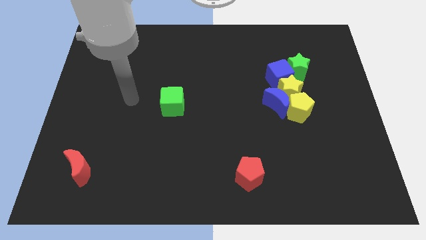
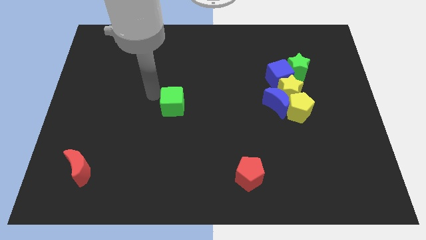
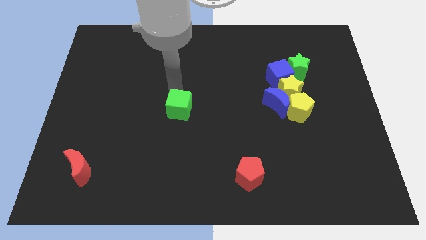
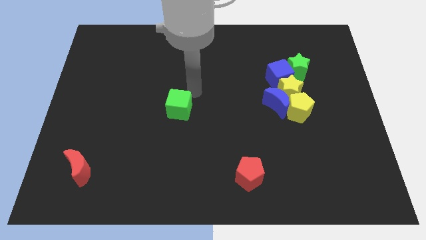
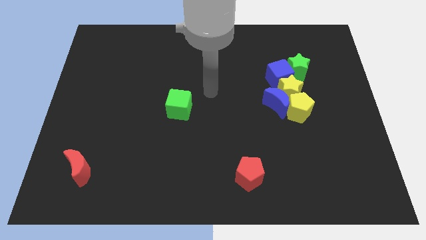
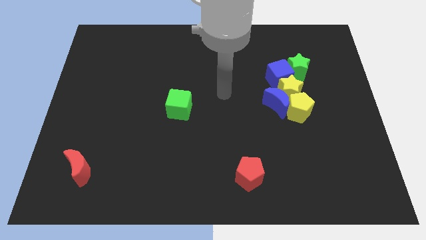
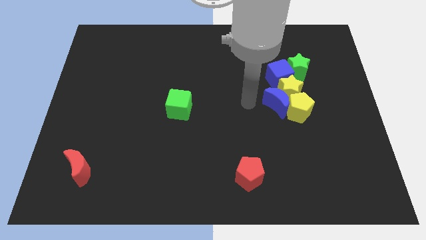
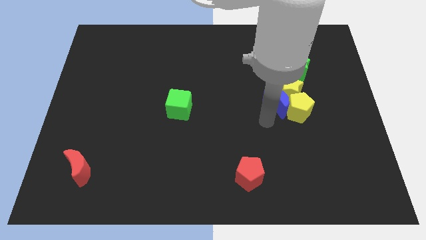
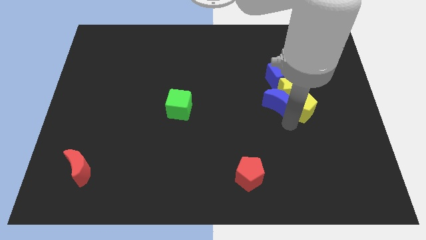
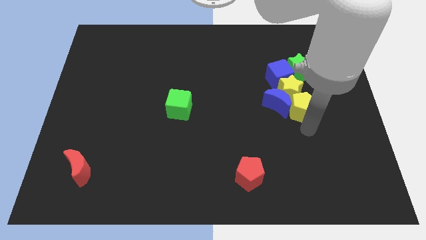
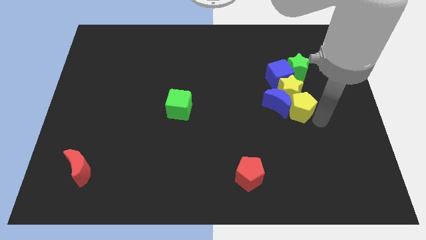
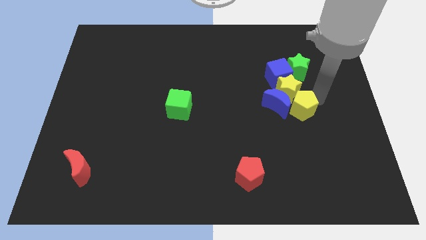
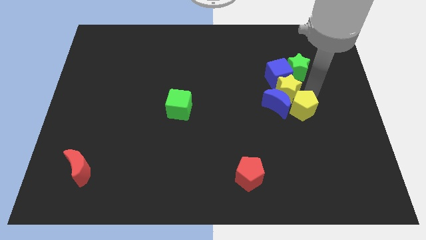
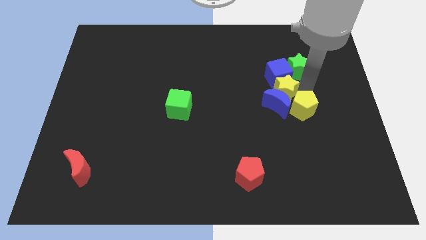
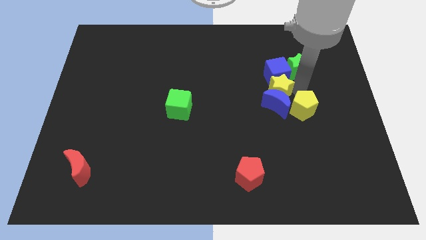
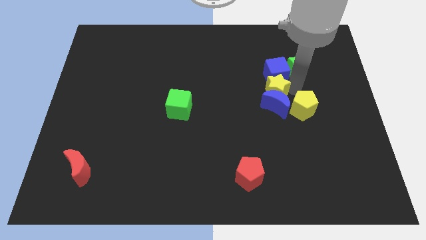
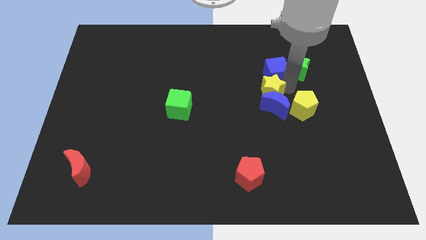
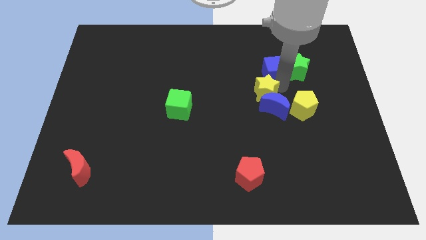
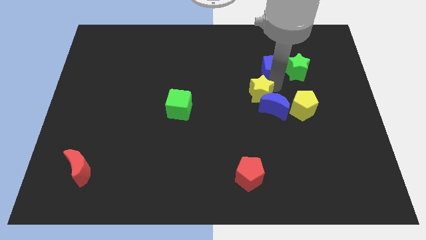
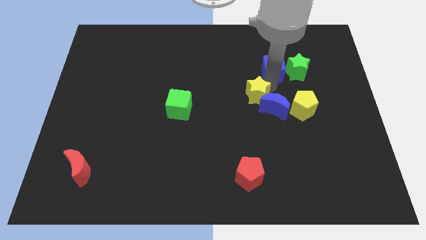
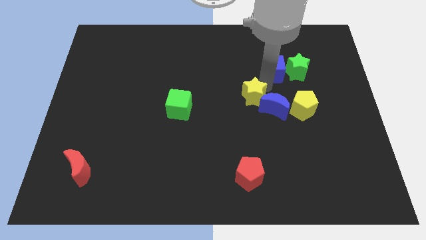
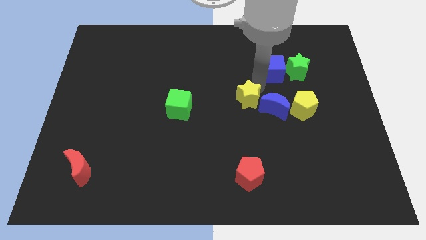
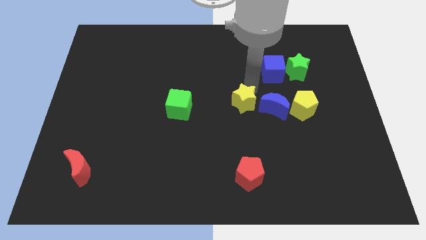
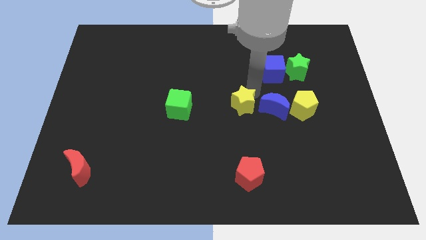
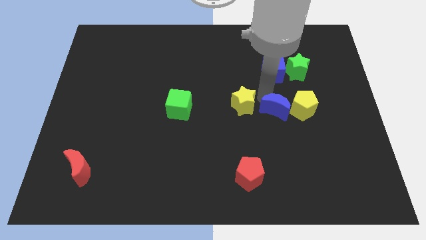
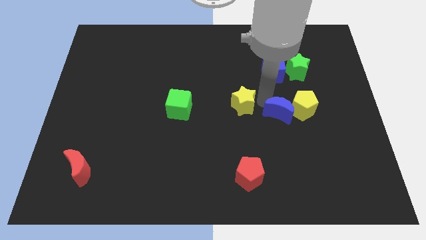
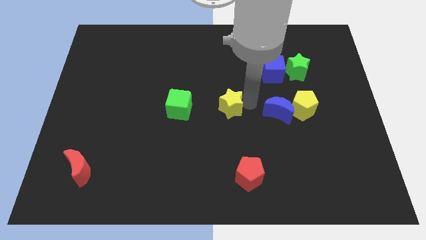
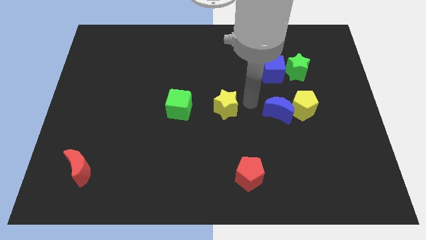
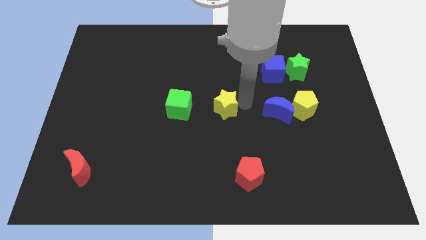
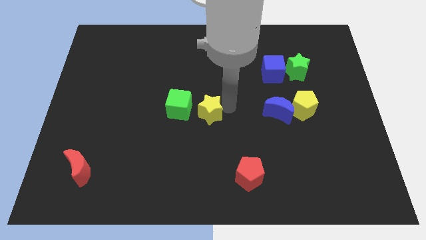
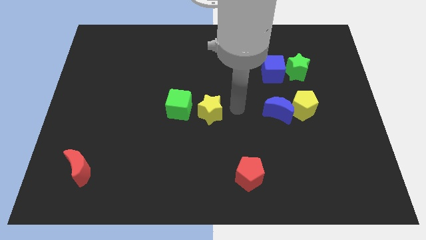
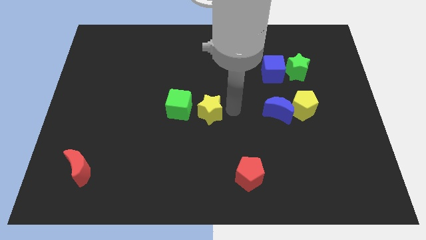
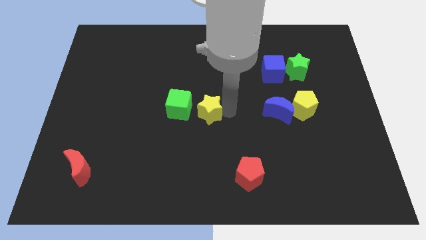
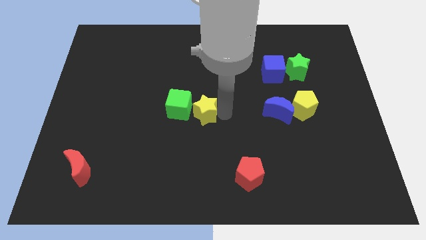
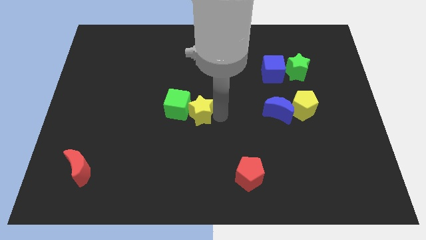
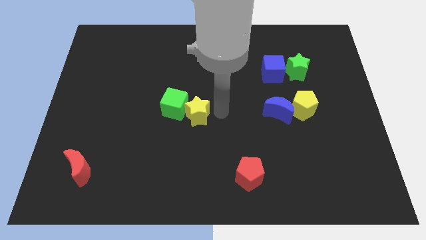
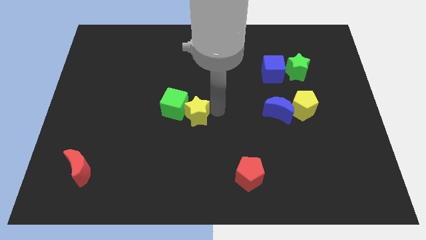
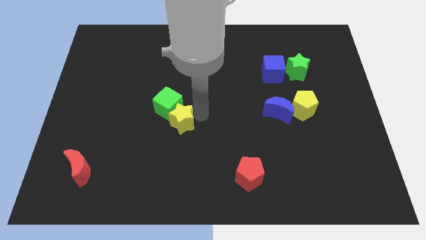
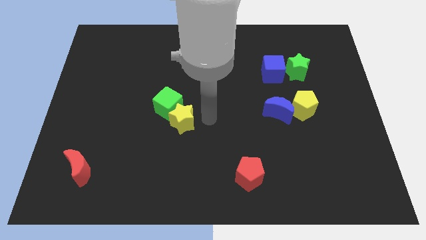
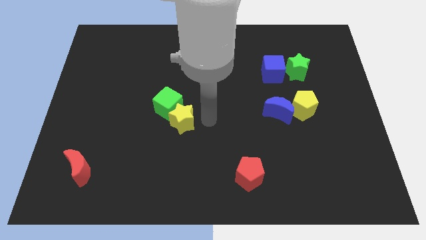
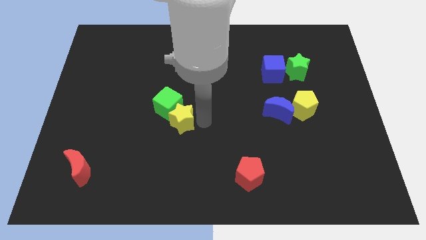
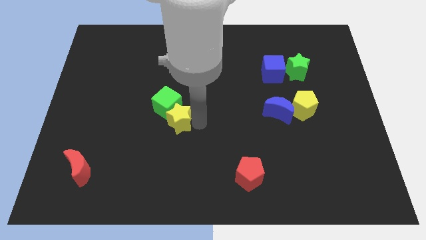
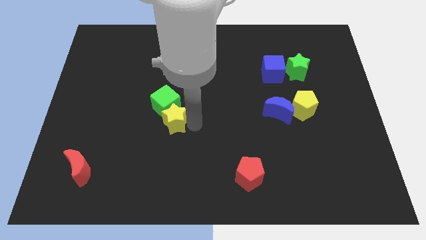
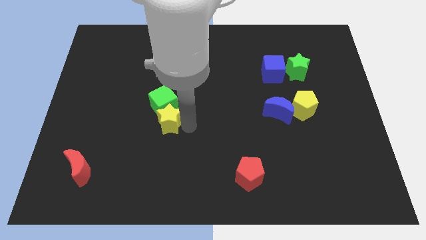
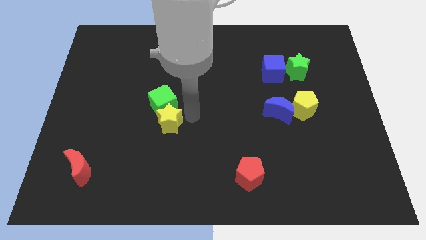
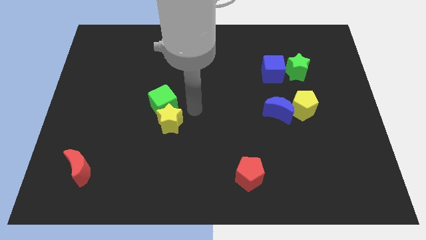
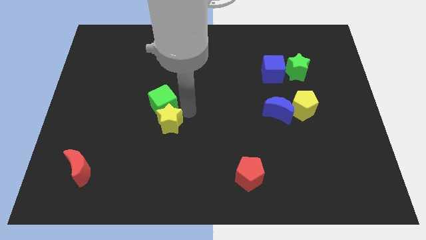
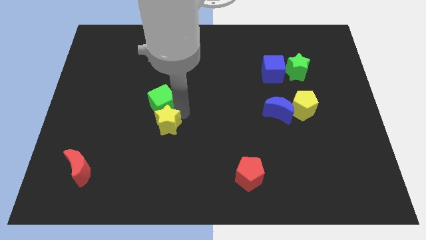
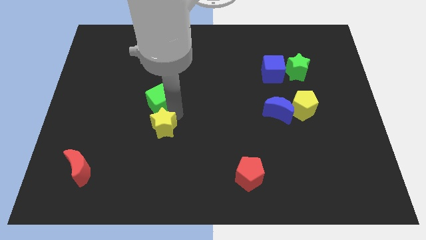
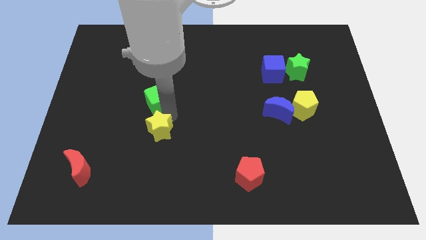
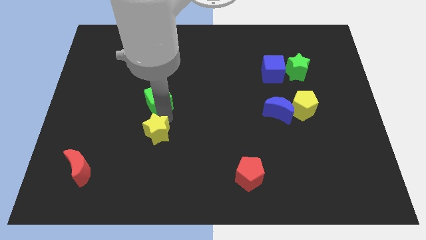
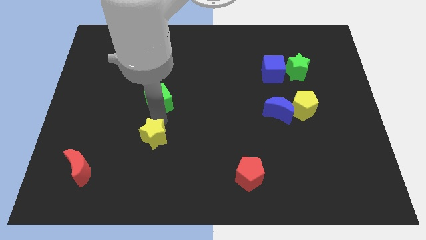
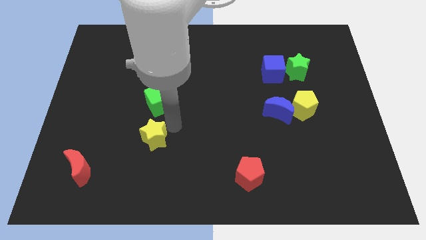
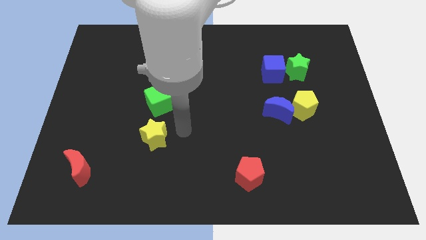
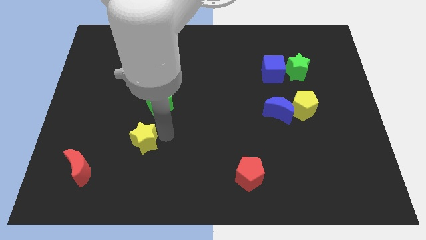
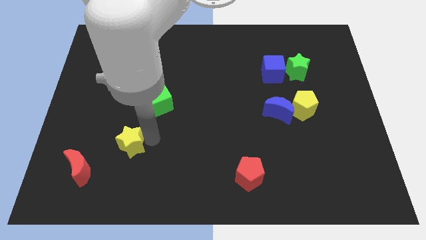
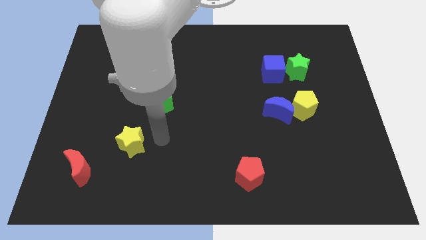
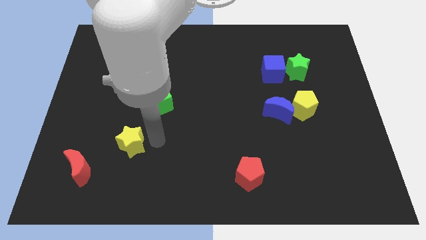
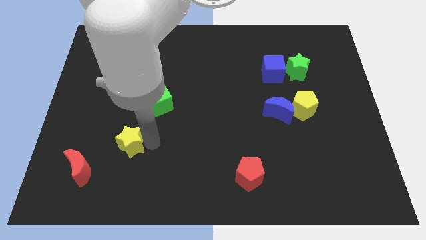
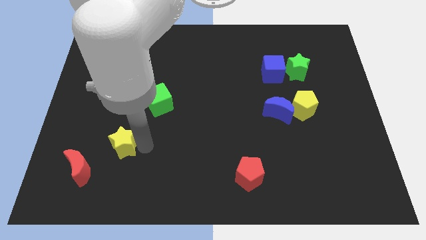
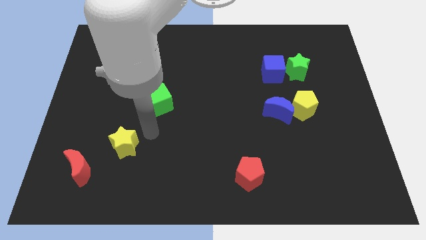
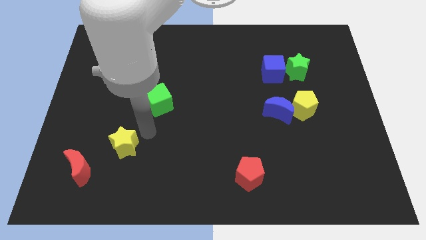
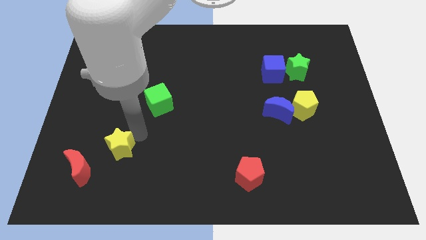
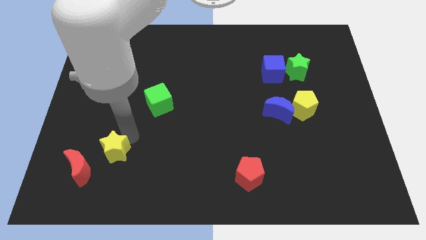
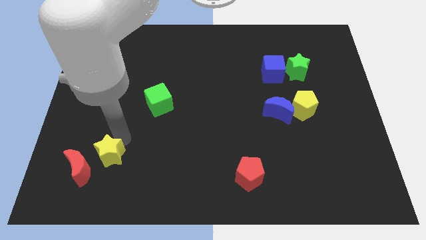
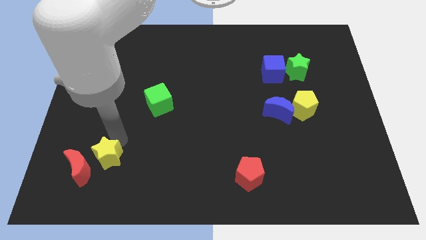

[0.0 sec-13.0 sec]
push the yellow star close to the red moon

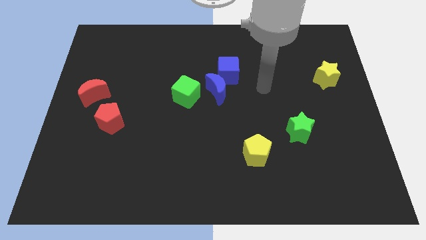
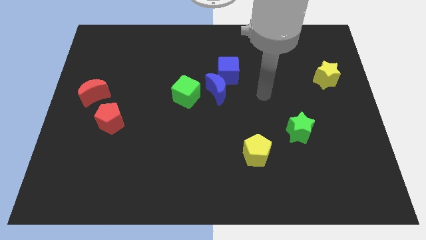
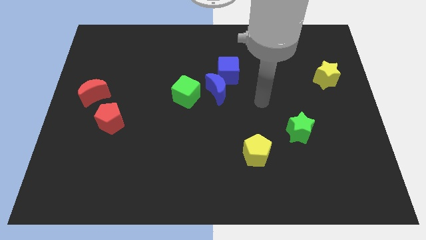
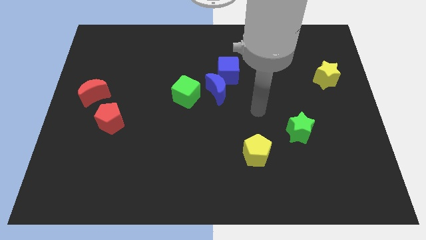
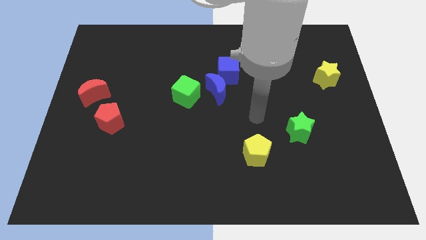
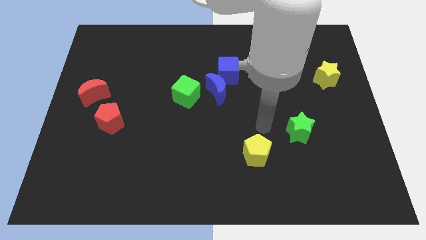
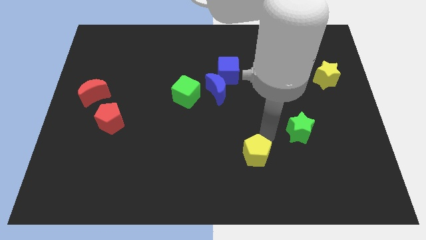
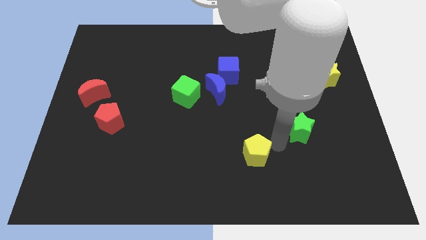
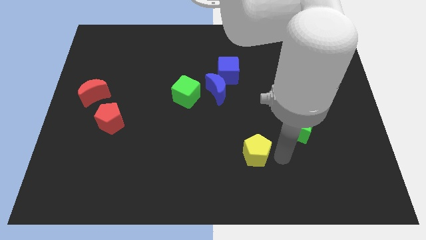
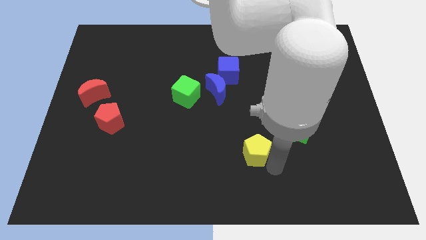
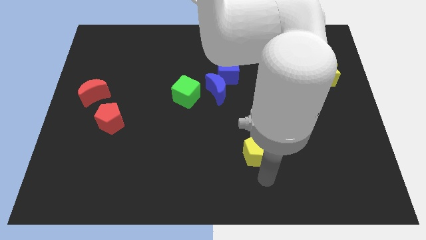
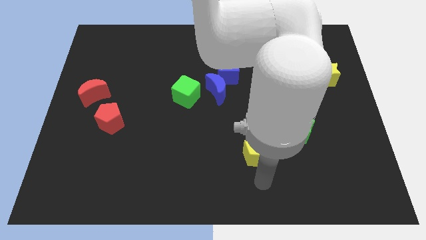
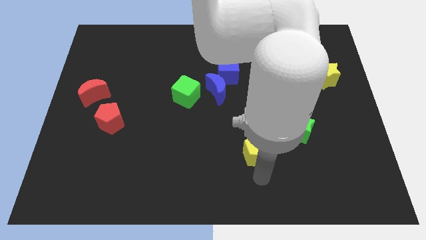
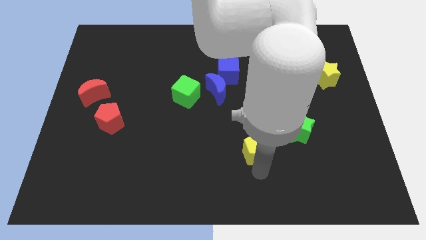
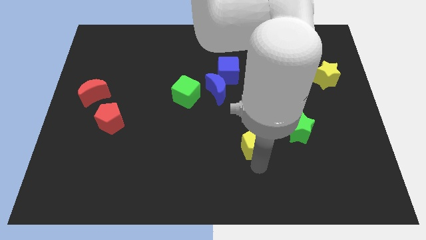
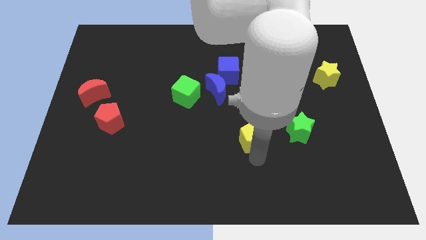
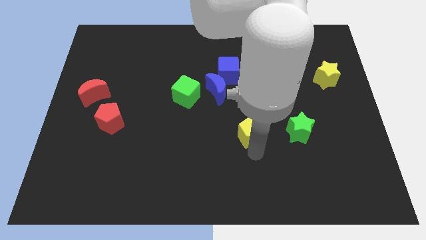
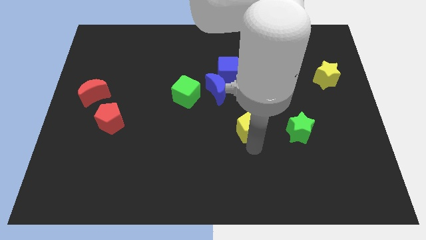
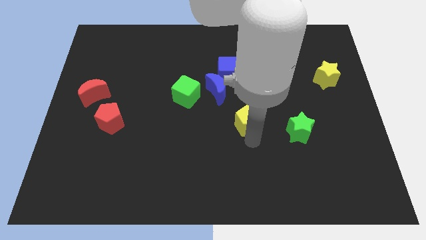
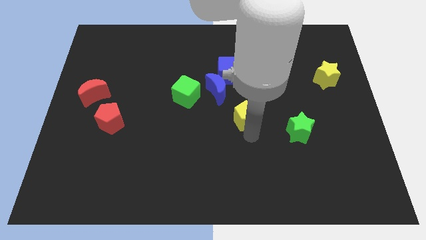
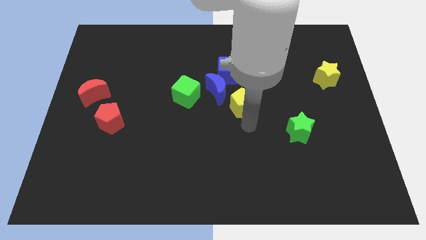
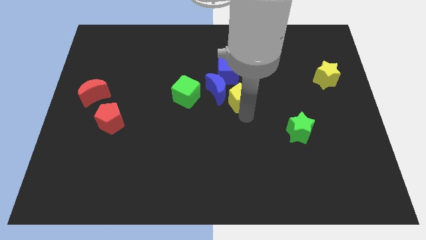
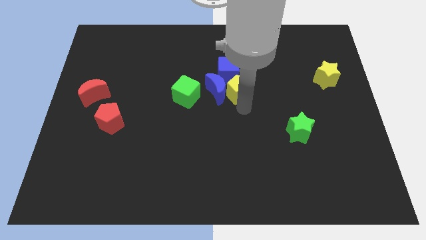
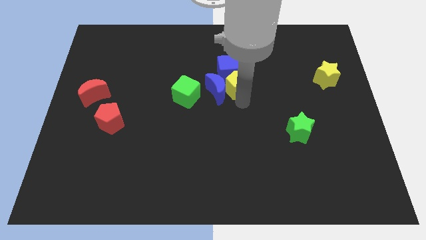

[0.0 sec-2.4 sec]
move the yellow pentagon towards the blue cube
